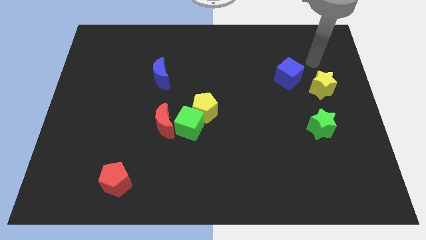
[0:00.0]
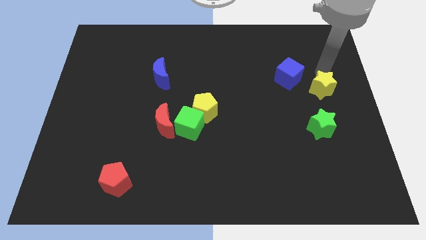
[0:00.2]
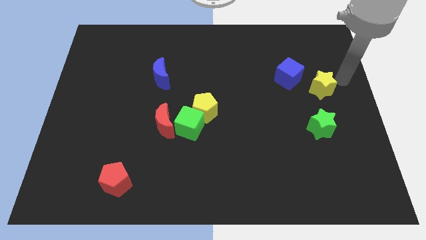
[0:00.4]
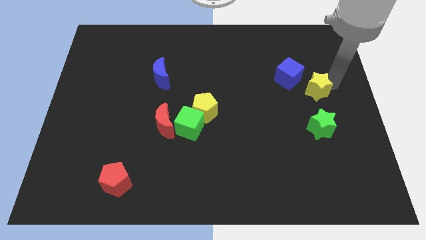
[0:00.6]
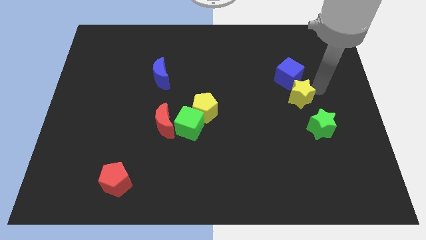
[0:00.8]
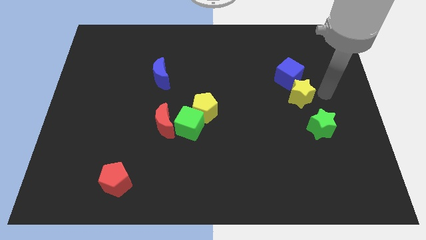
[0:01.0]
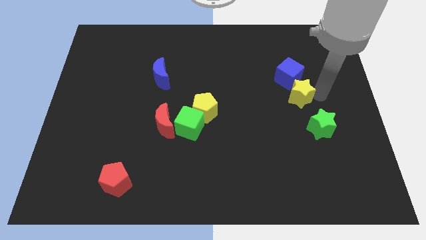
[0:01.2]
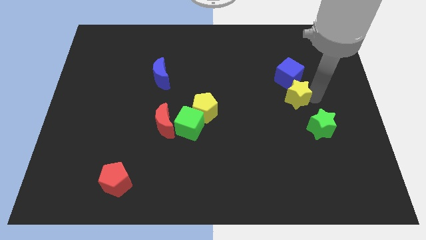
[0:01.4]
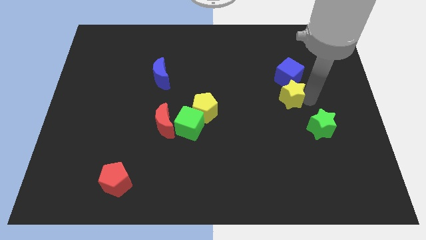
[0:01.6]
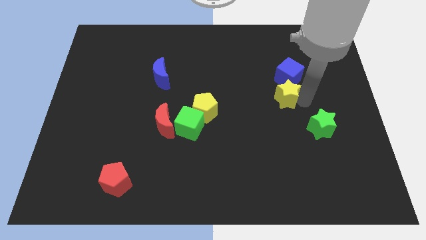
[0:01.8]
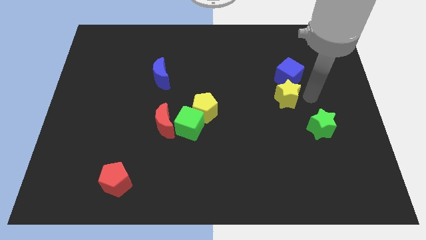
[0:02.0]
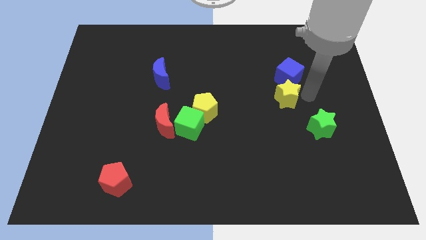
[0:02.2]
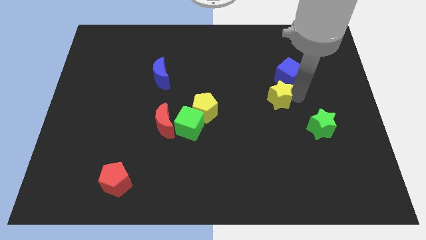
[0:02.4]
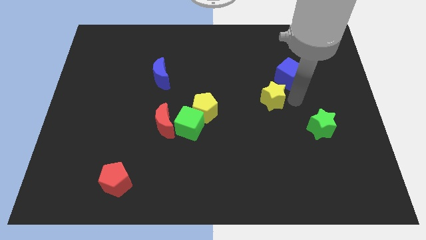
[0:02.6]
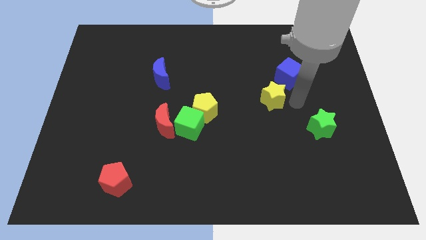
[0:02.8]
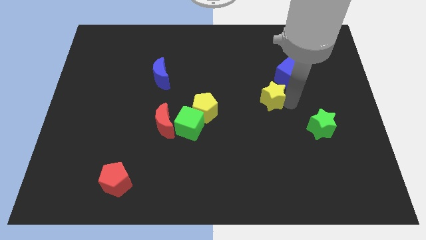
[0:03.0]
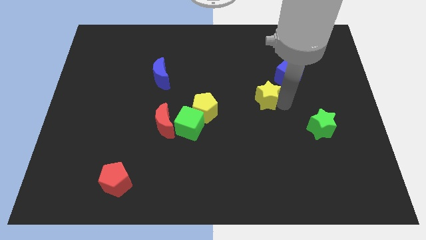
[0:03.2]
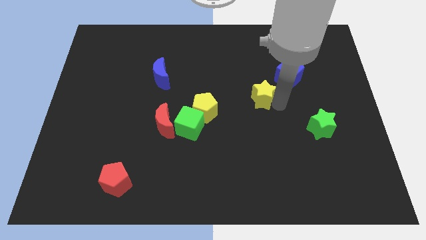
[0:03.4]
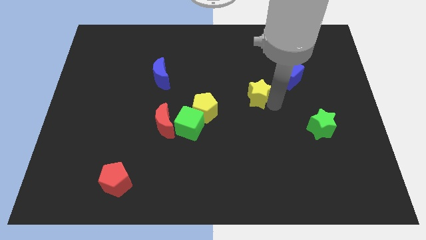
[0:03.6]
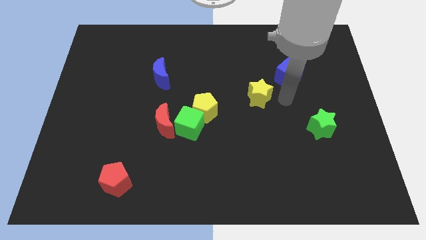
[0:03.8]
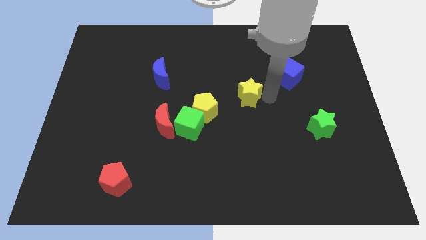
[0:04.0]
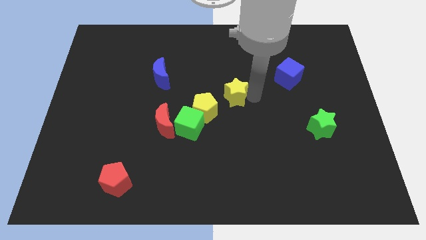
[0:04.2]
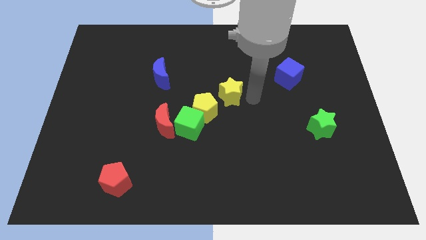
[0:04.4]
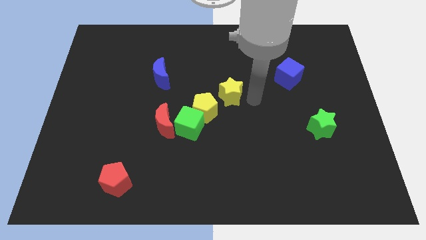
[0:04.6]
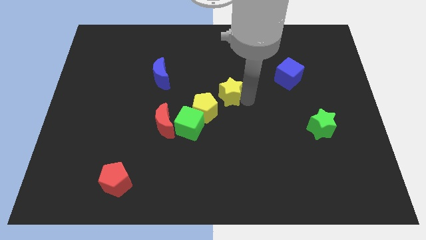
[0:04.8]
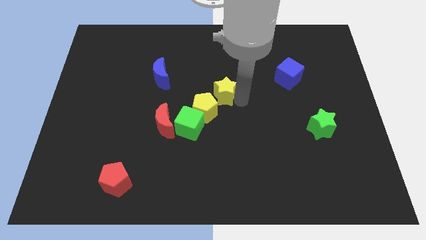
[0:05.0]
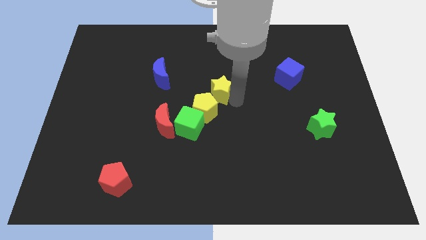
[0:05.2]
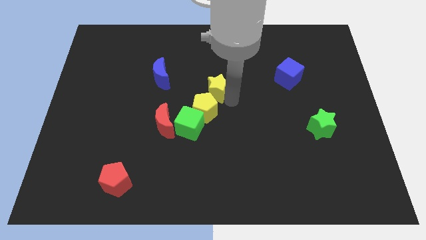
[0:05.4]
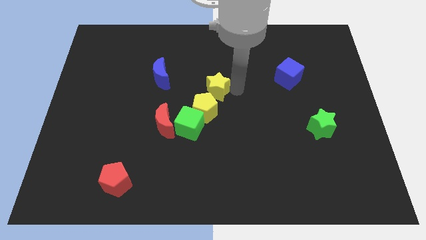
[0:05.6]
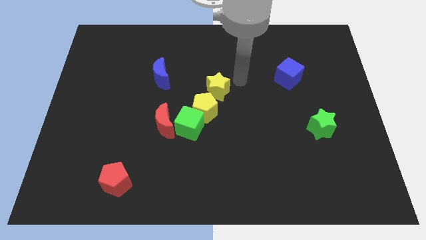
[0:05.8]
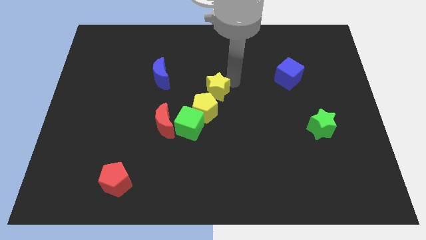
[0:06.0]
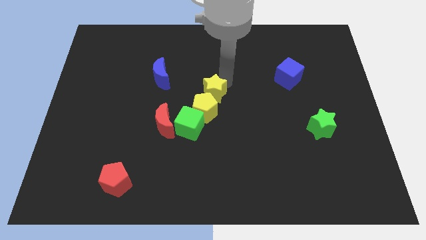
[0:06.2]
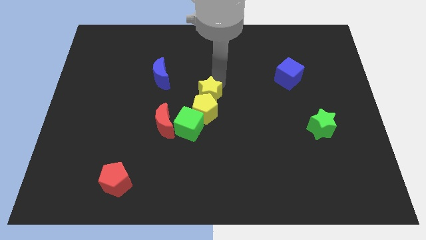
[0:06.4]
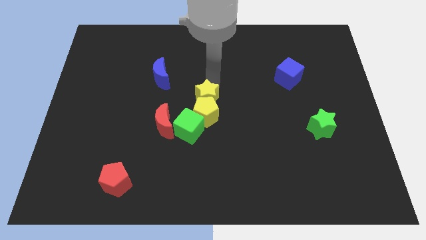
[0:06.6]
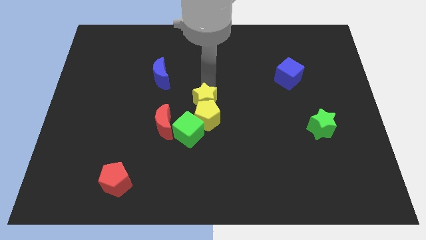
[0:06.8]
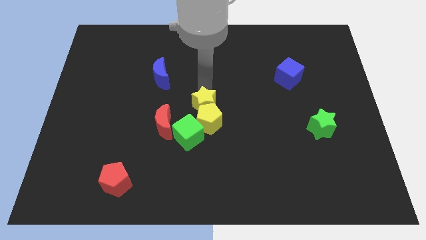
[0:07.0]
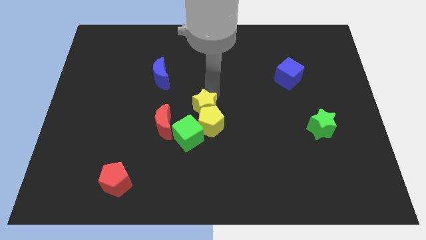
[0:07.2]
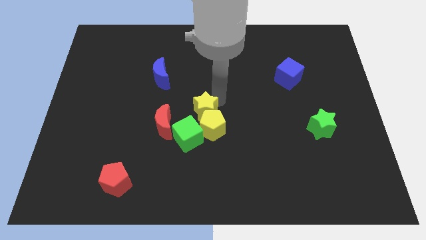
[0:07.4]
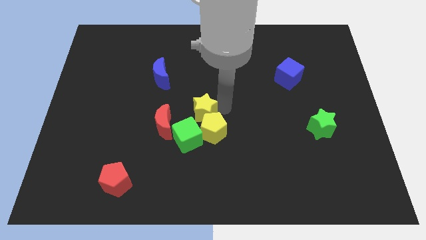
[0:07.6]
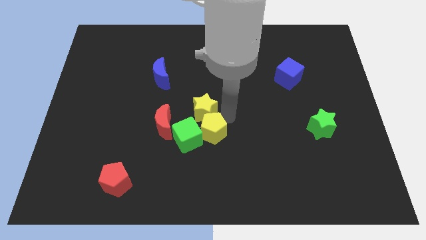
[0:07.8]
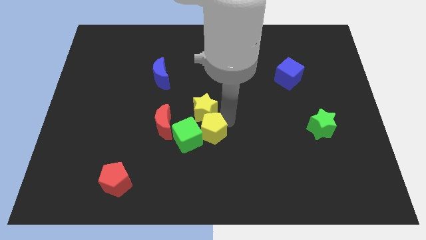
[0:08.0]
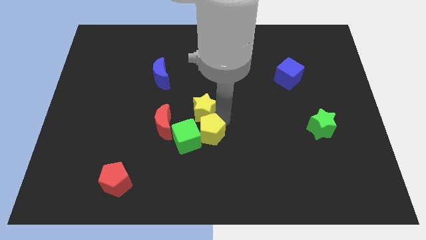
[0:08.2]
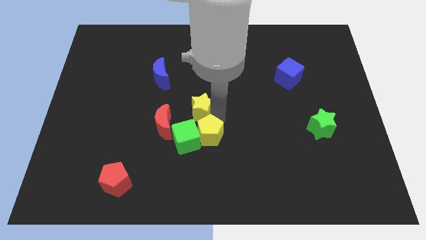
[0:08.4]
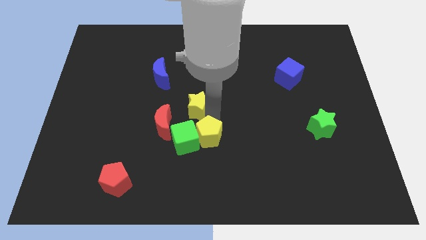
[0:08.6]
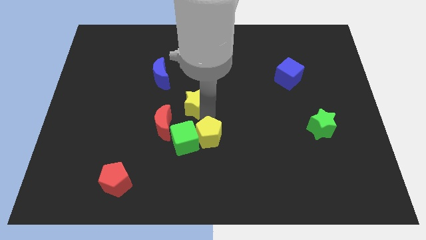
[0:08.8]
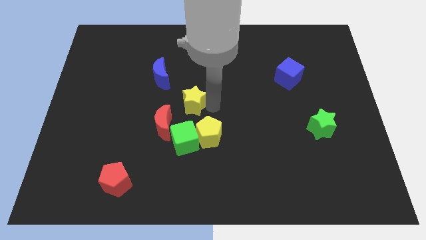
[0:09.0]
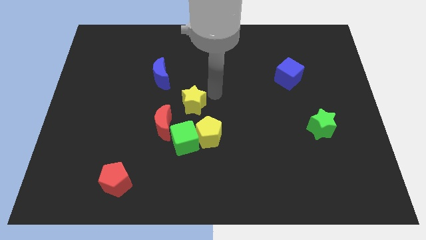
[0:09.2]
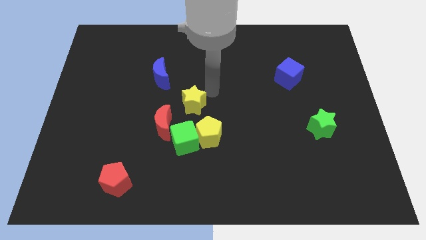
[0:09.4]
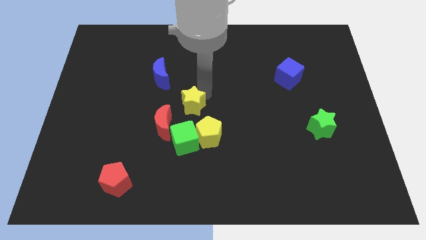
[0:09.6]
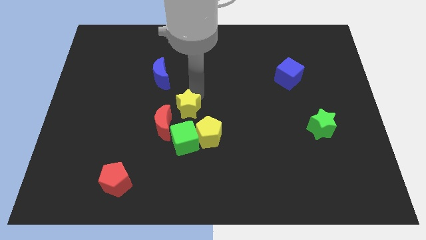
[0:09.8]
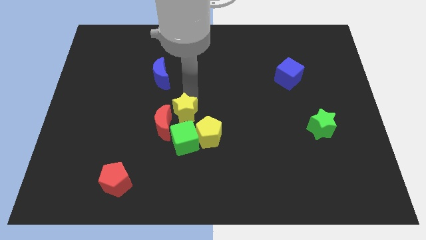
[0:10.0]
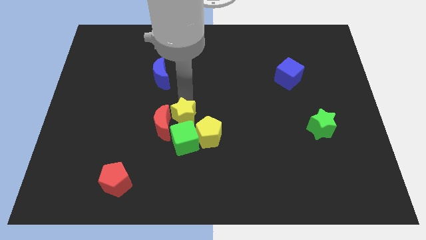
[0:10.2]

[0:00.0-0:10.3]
put the yellow star to the top left side of the green cube

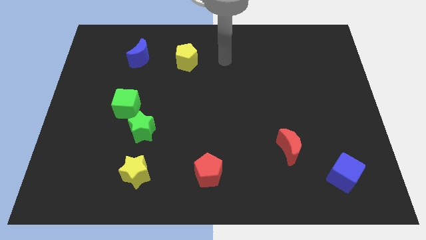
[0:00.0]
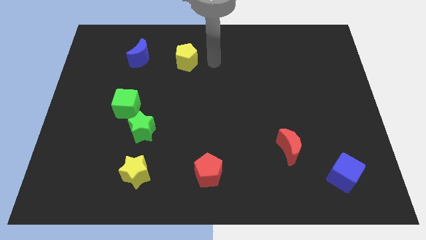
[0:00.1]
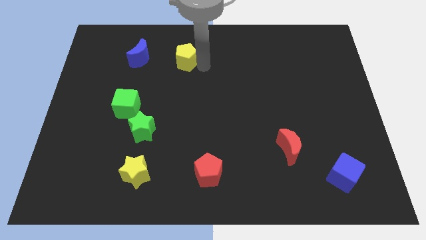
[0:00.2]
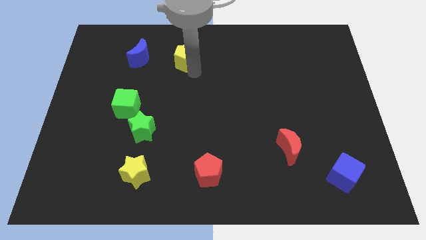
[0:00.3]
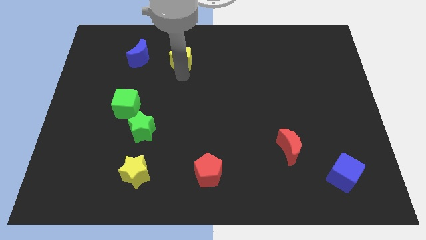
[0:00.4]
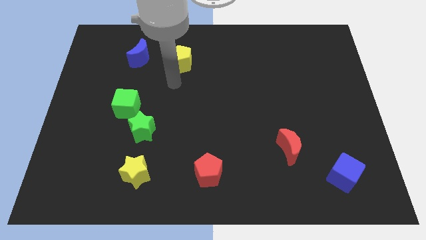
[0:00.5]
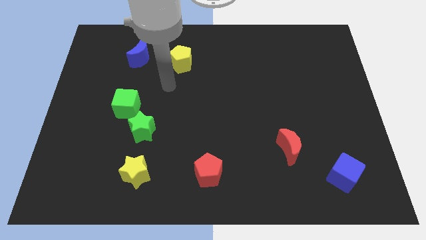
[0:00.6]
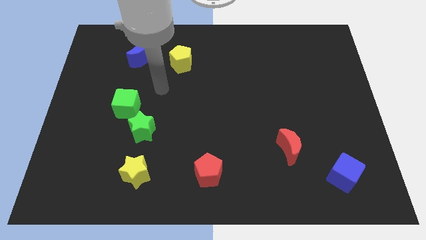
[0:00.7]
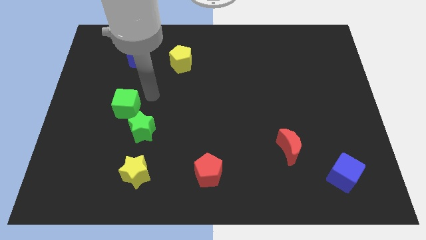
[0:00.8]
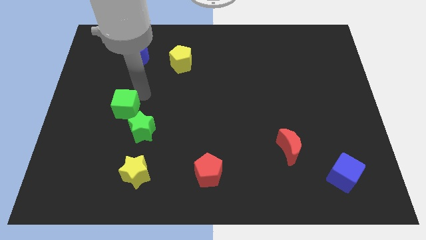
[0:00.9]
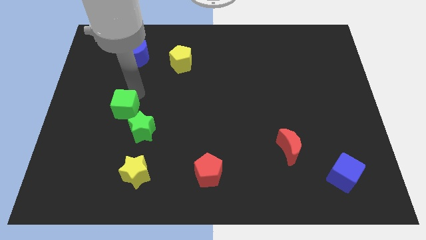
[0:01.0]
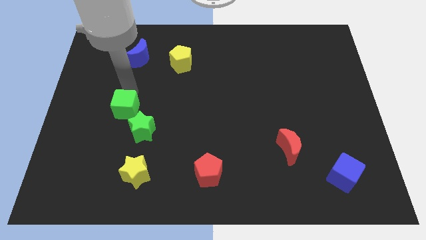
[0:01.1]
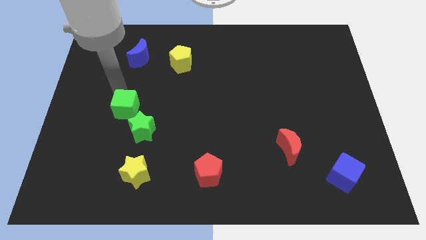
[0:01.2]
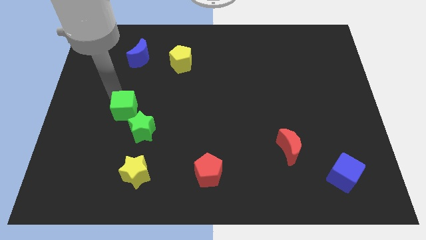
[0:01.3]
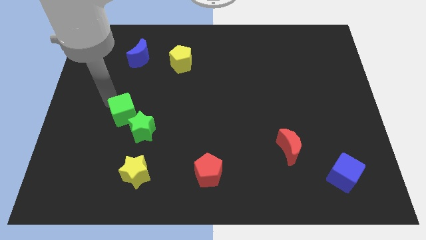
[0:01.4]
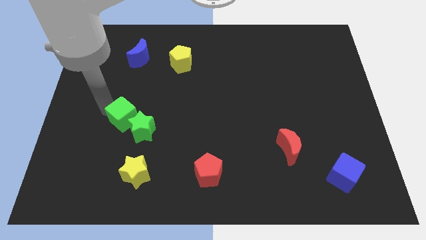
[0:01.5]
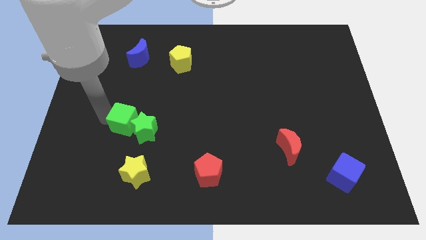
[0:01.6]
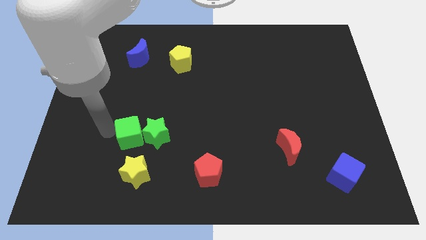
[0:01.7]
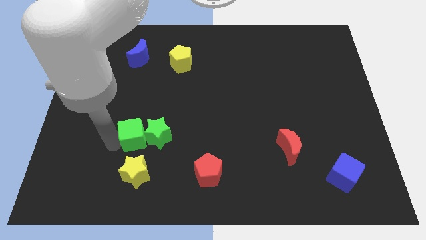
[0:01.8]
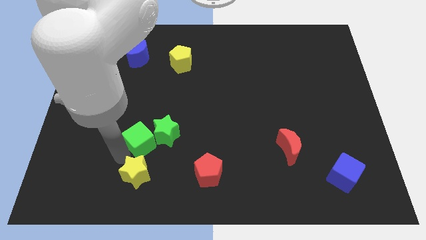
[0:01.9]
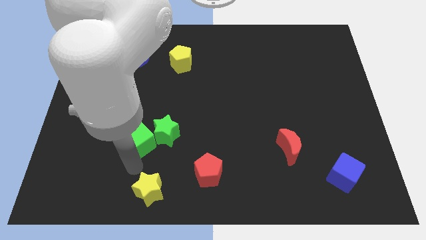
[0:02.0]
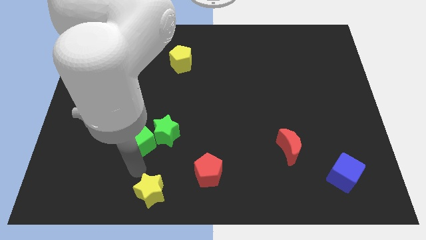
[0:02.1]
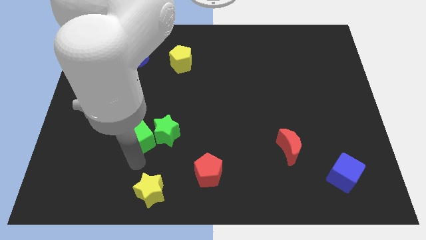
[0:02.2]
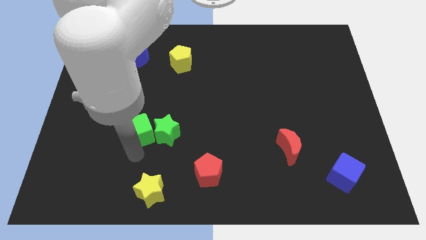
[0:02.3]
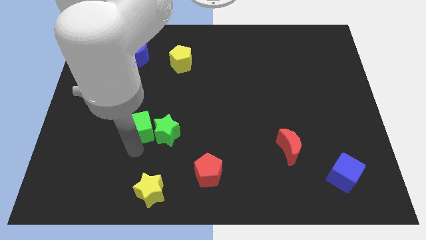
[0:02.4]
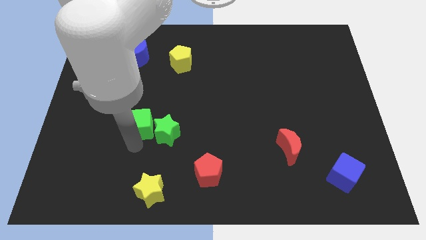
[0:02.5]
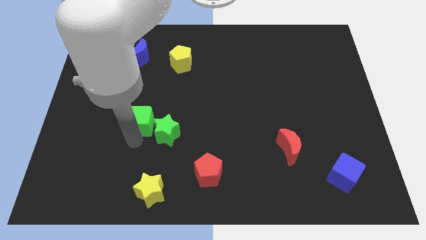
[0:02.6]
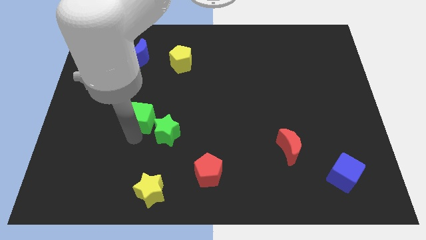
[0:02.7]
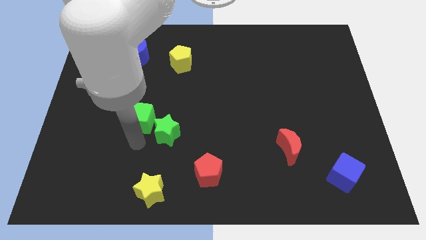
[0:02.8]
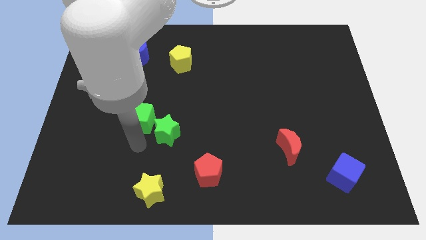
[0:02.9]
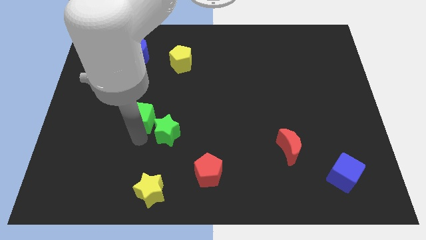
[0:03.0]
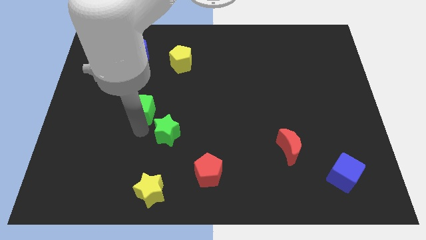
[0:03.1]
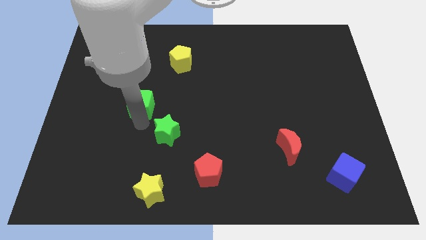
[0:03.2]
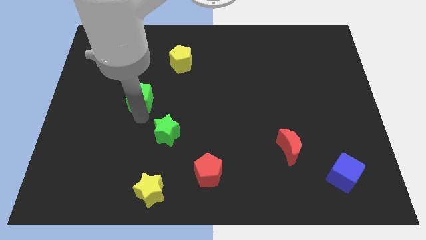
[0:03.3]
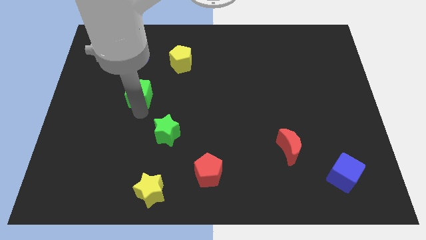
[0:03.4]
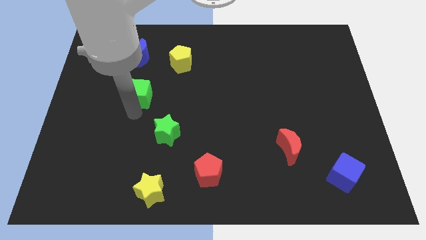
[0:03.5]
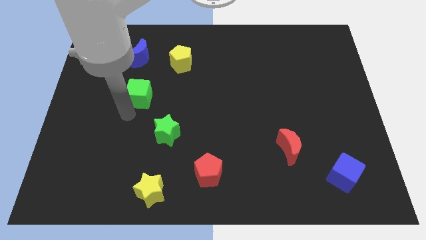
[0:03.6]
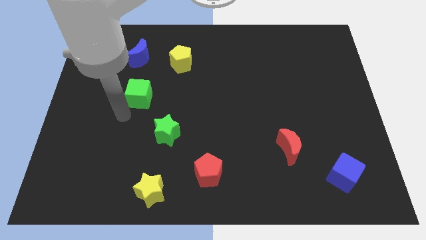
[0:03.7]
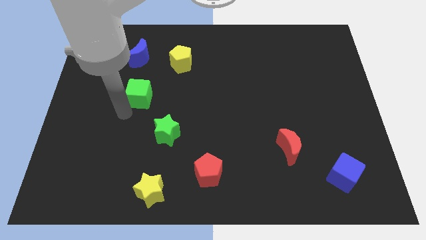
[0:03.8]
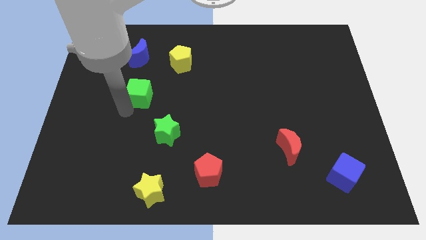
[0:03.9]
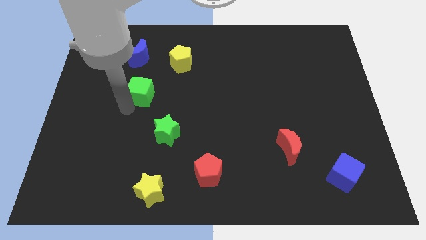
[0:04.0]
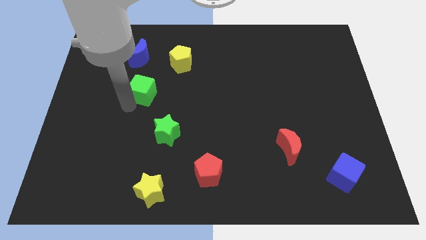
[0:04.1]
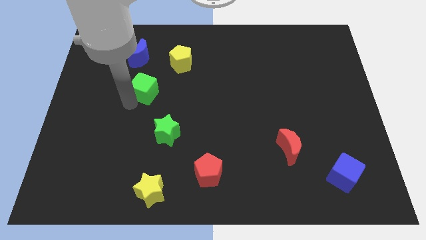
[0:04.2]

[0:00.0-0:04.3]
slide the green cube diagonally down and to the left of the yellow pentagon
